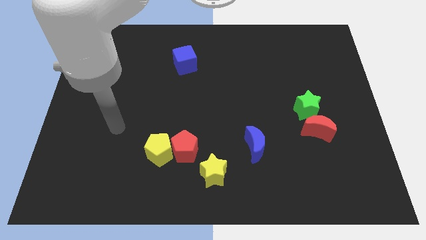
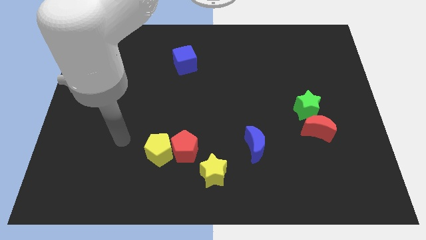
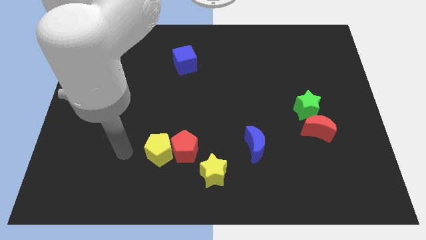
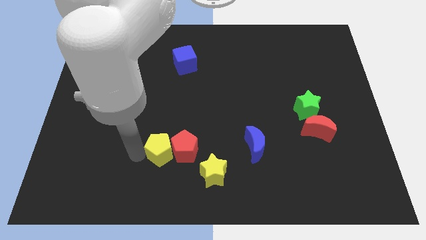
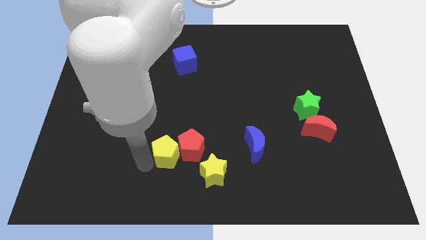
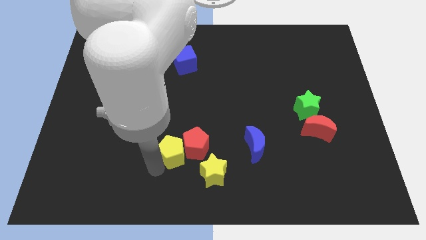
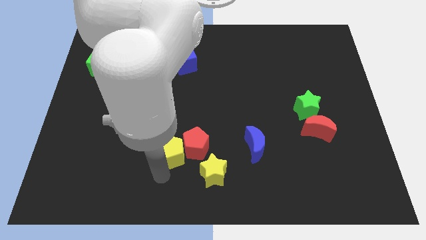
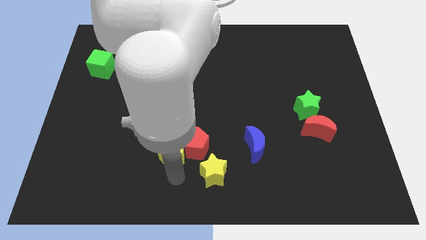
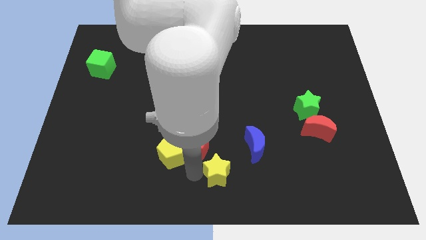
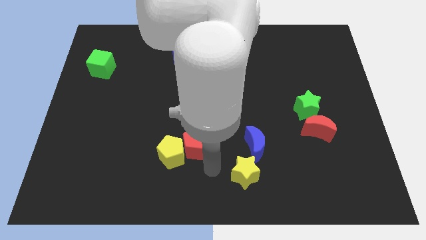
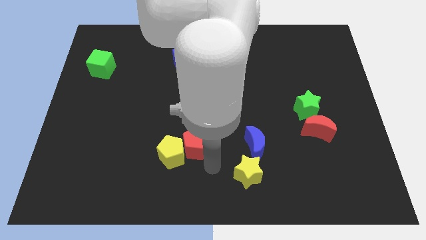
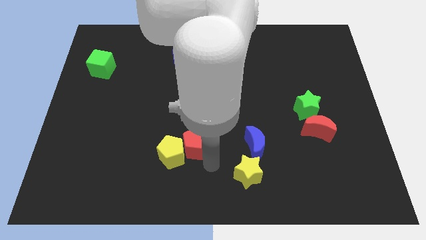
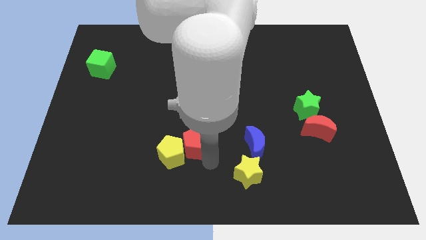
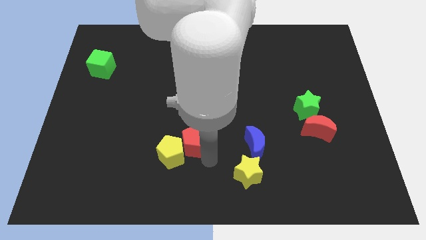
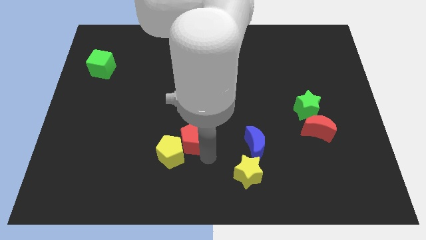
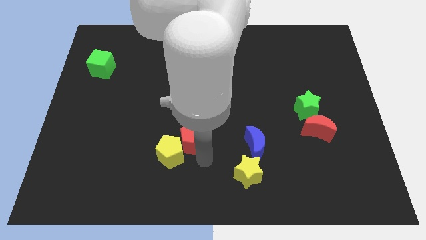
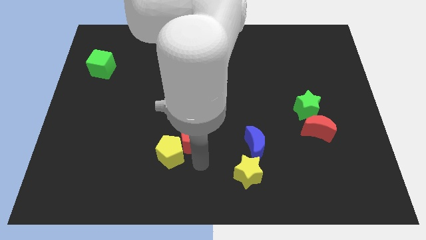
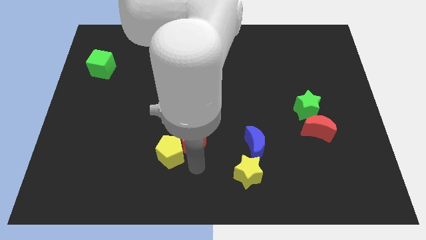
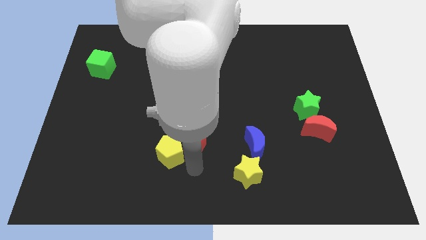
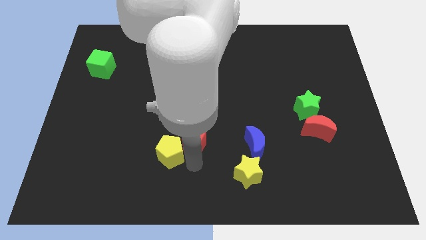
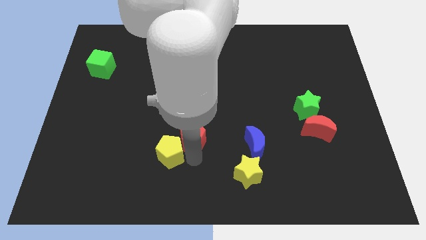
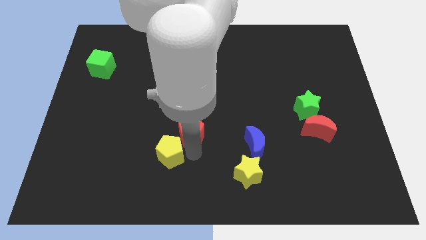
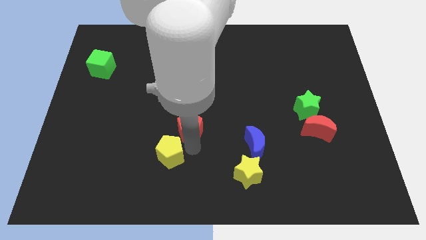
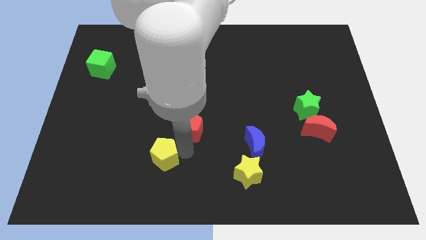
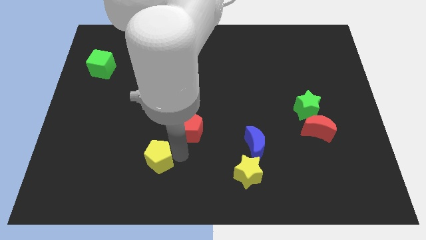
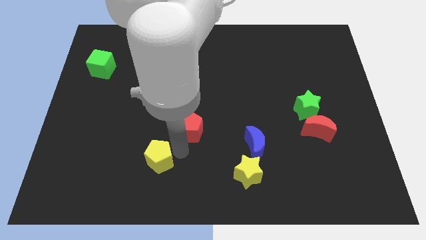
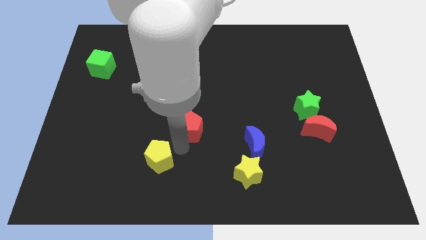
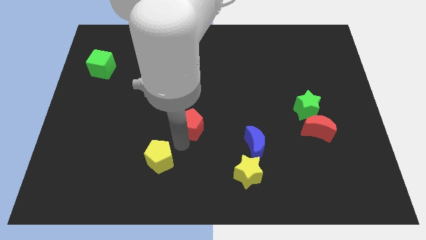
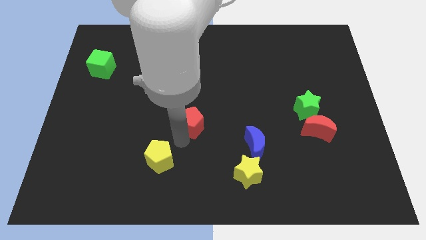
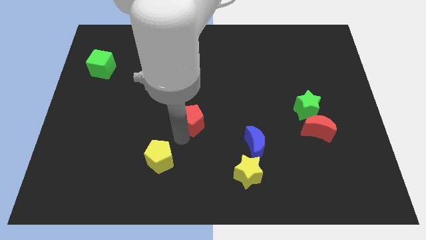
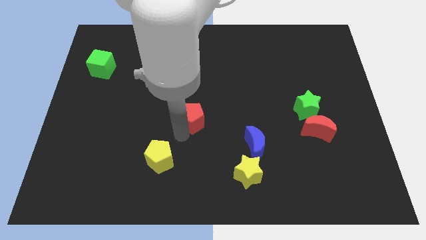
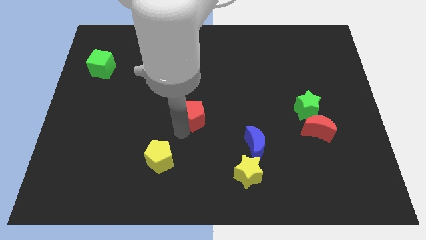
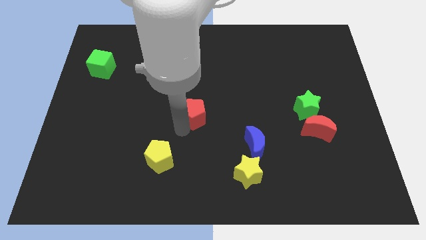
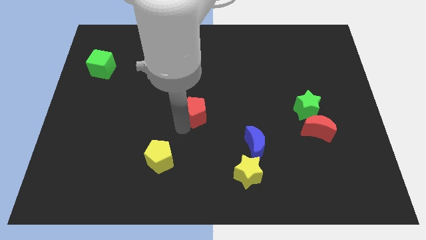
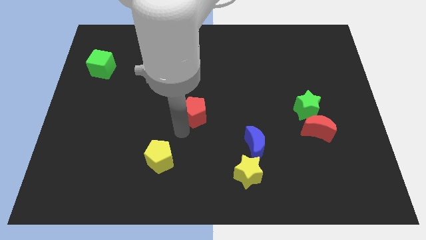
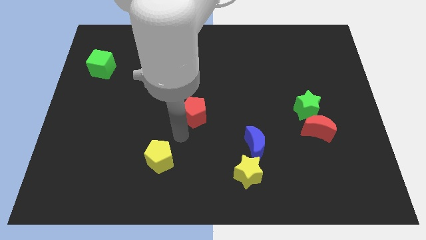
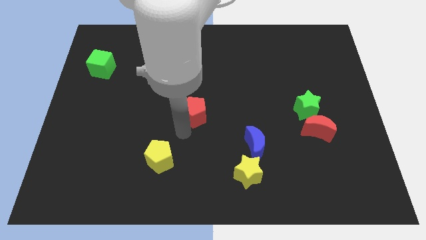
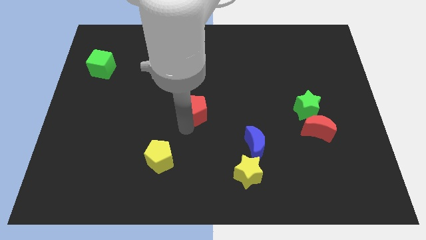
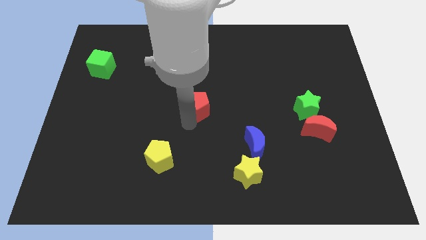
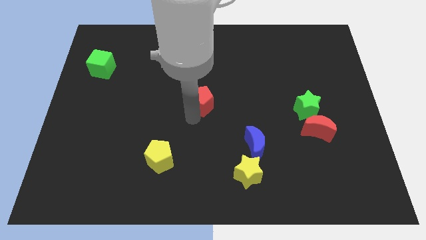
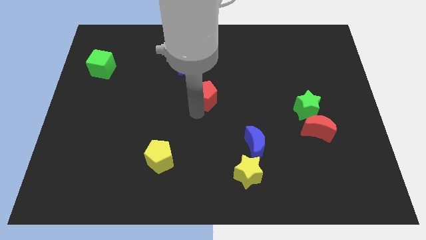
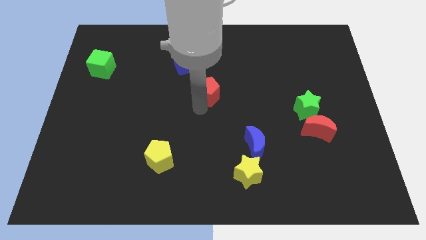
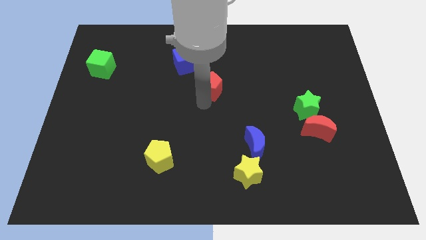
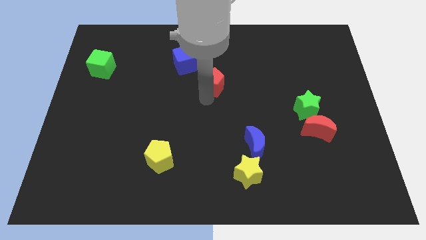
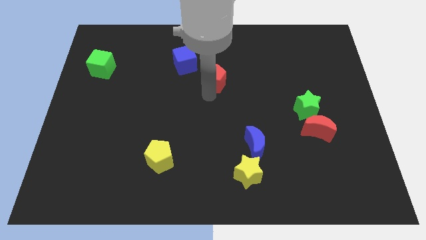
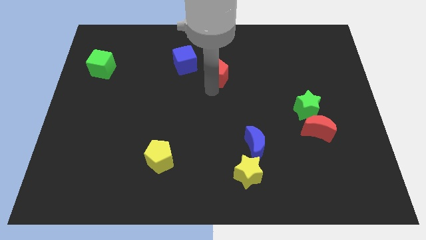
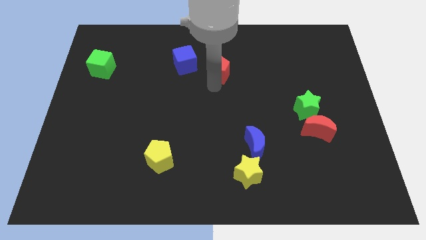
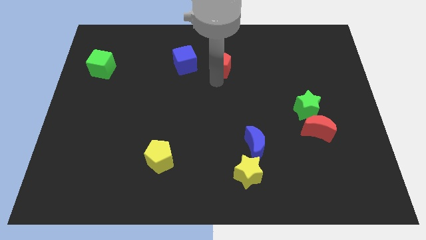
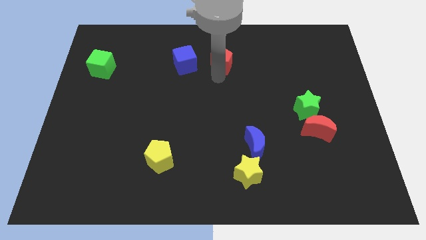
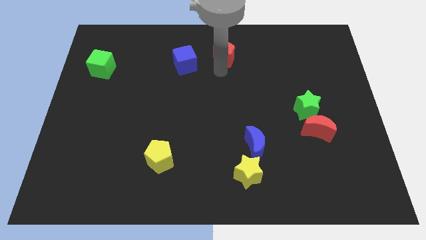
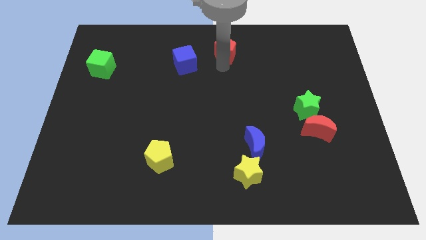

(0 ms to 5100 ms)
move the red pentagon to the towards your base

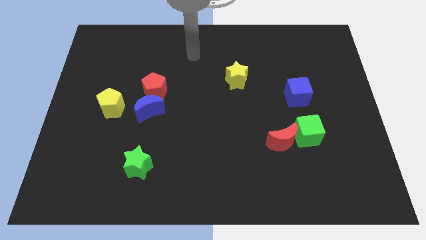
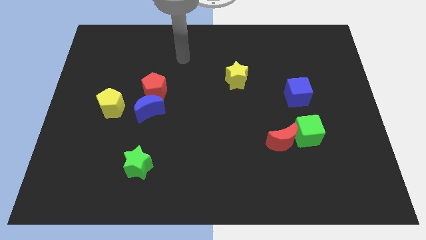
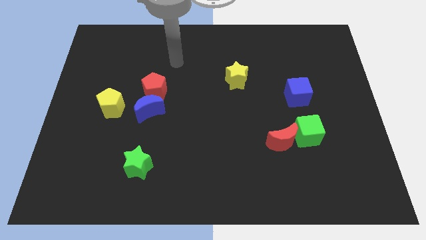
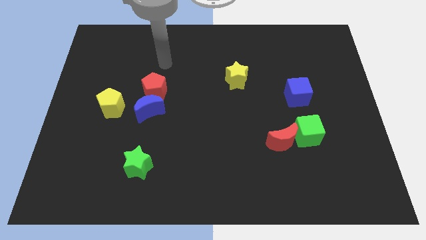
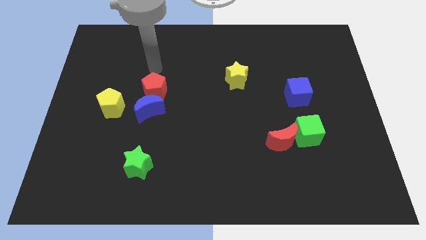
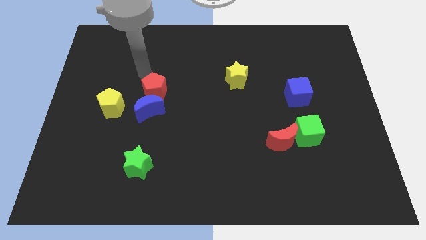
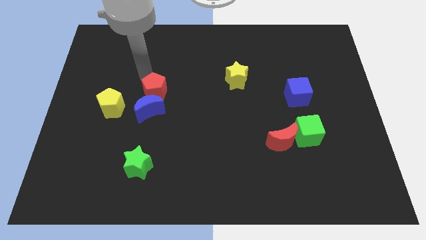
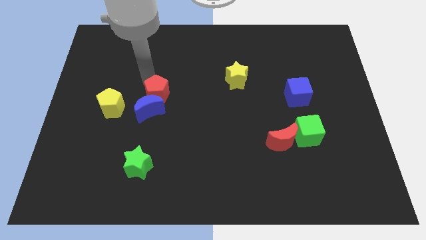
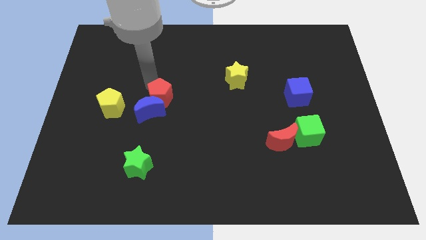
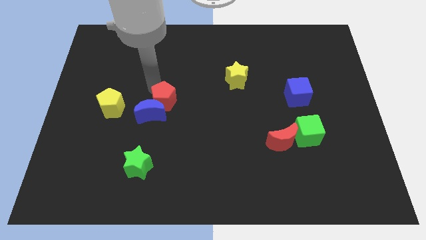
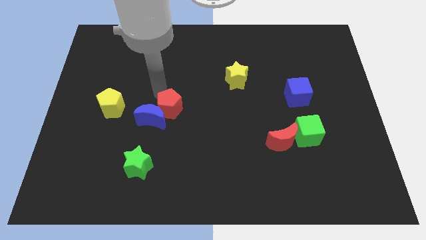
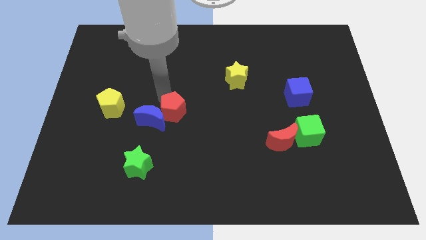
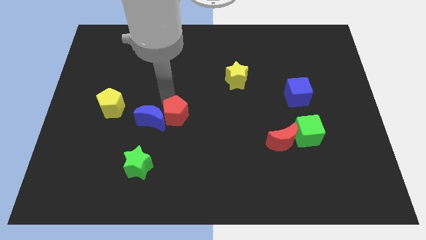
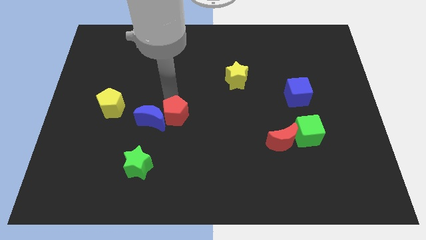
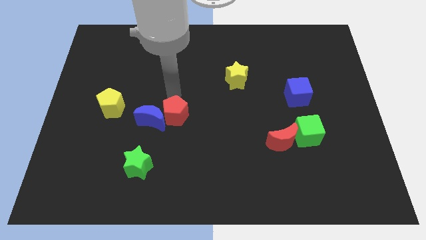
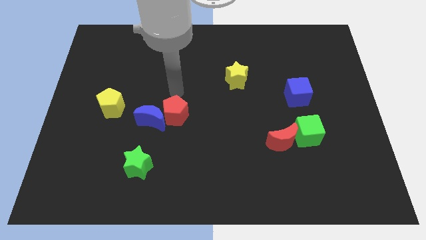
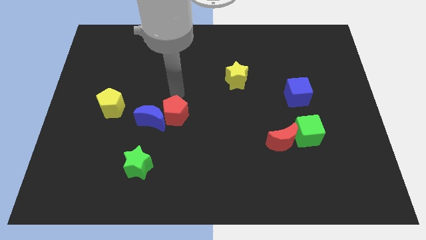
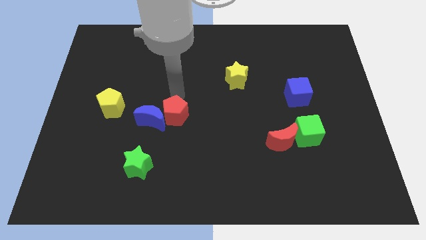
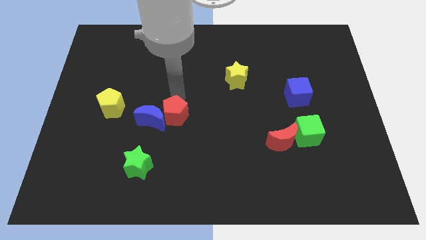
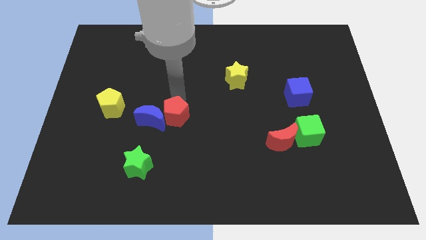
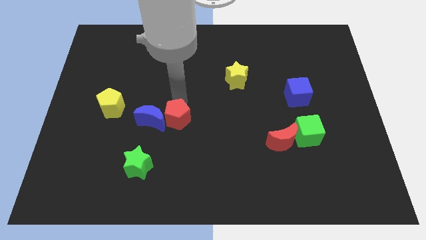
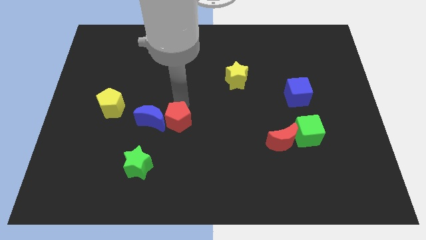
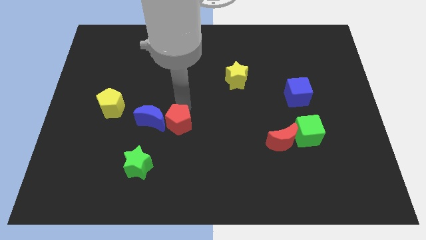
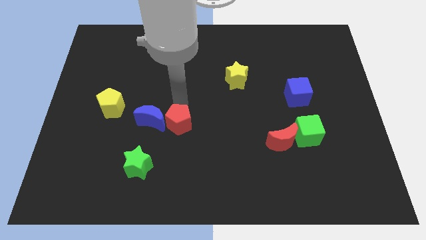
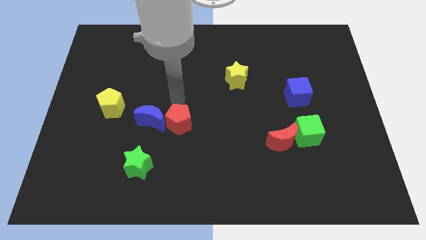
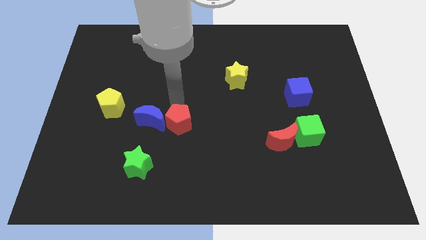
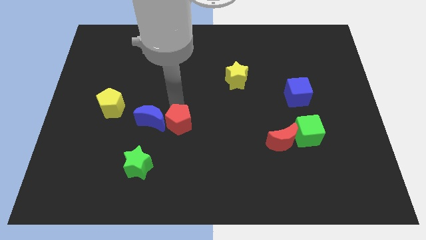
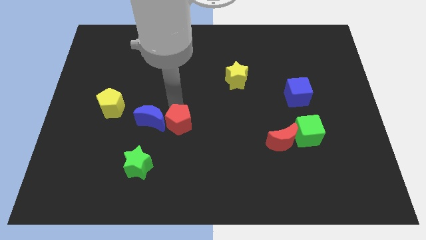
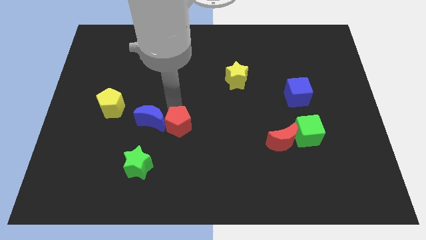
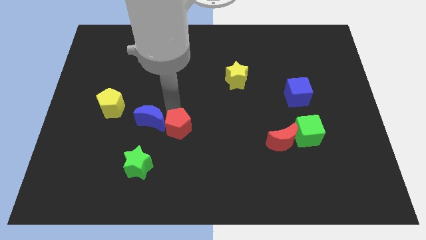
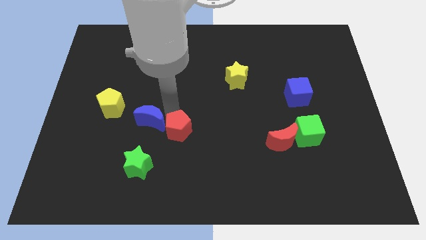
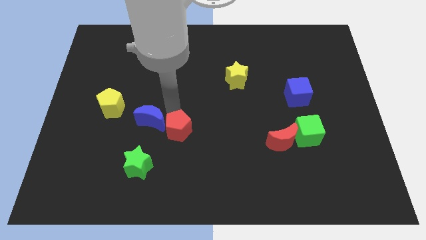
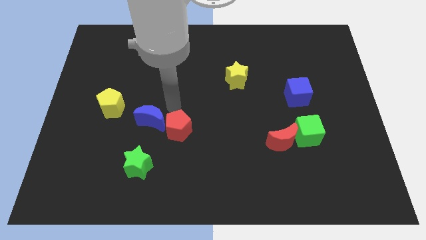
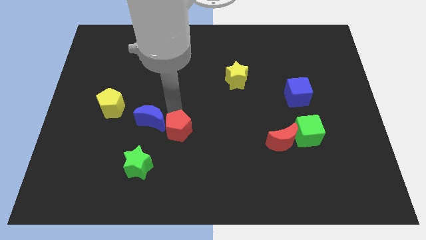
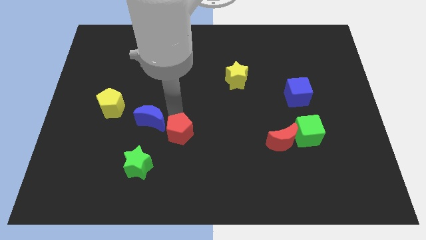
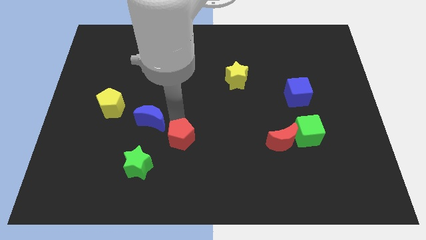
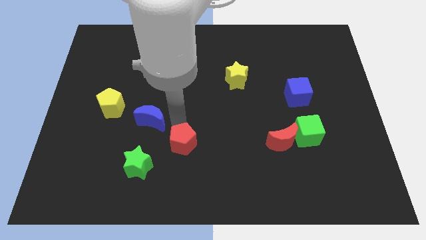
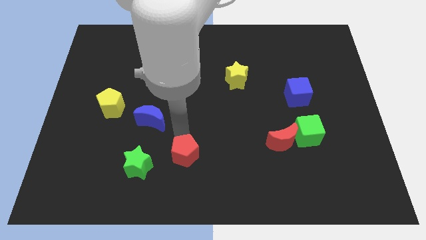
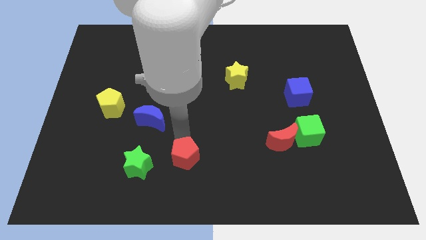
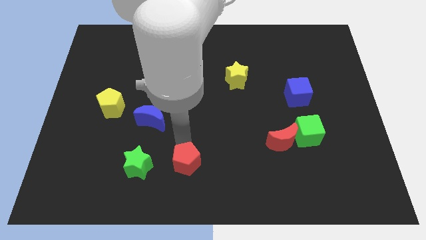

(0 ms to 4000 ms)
put the red pentagon to the bottom
